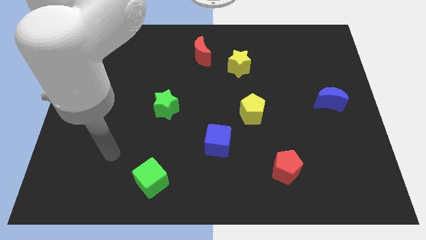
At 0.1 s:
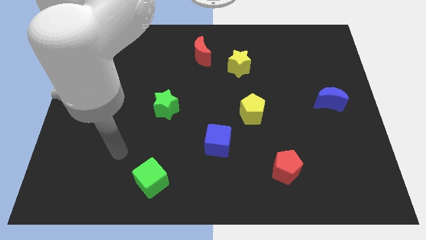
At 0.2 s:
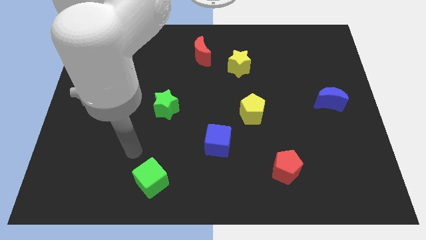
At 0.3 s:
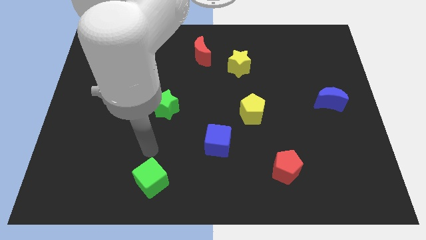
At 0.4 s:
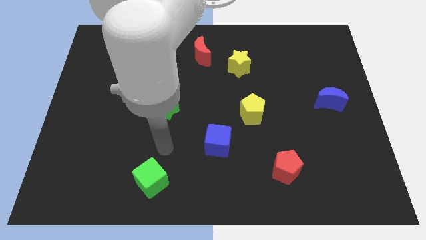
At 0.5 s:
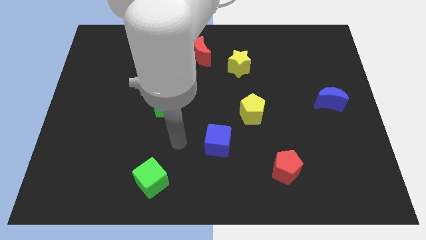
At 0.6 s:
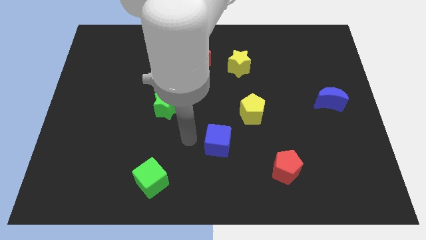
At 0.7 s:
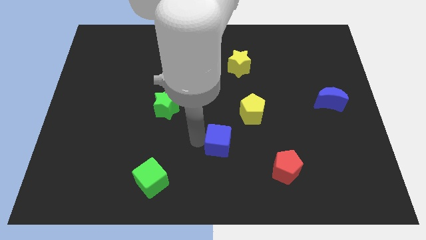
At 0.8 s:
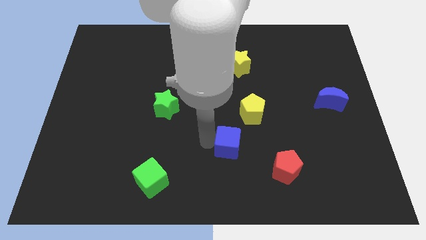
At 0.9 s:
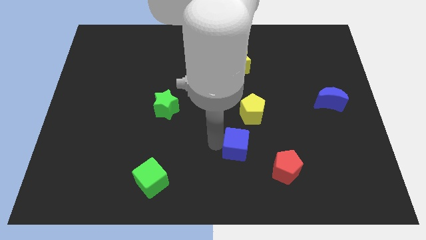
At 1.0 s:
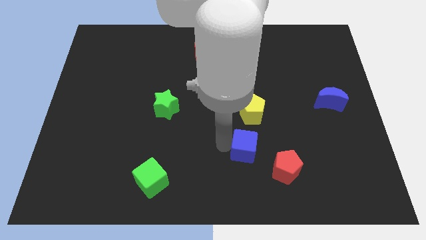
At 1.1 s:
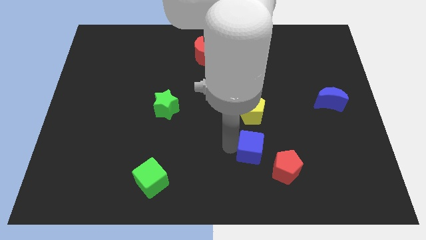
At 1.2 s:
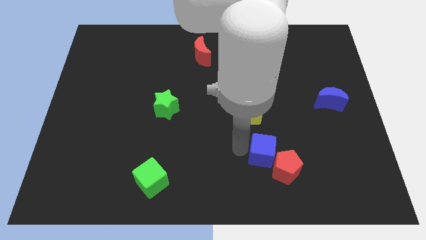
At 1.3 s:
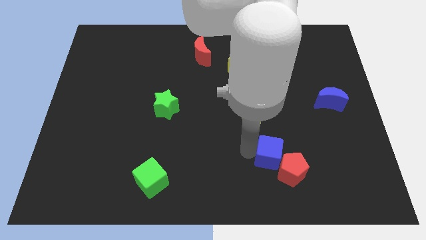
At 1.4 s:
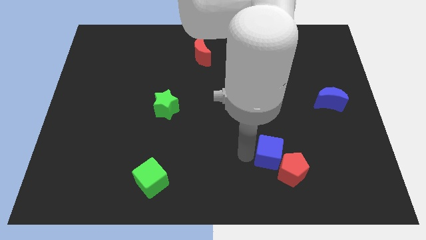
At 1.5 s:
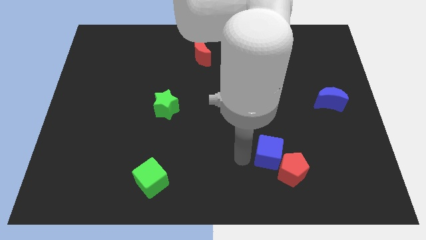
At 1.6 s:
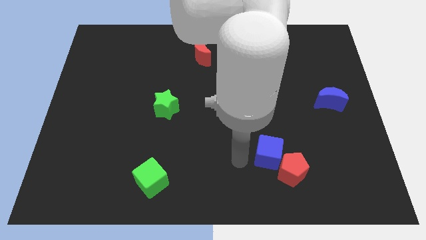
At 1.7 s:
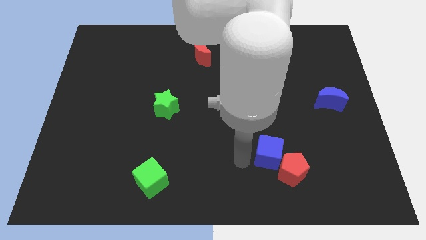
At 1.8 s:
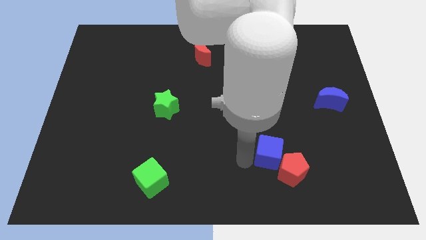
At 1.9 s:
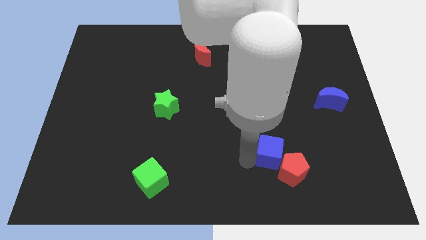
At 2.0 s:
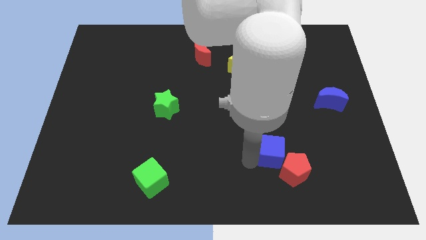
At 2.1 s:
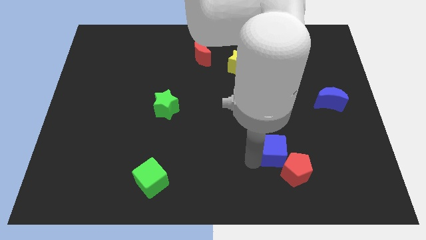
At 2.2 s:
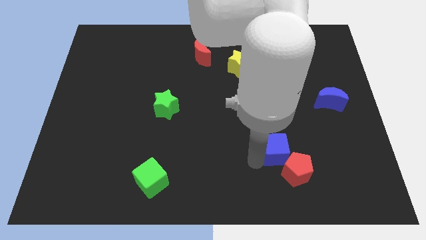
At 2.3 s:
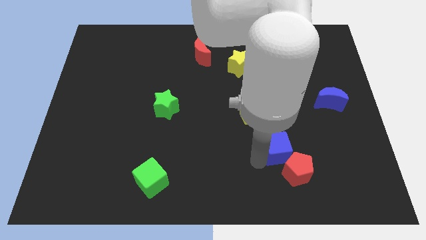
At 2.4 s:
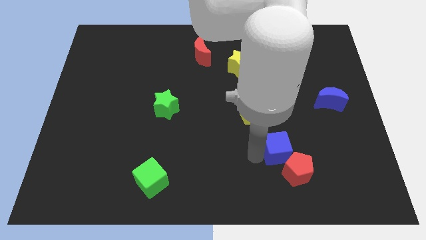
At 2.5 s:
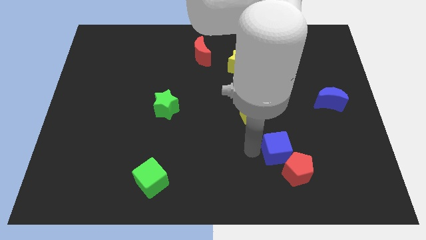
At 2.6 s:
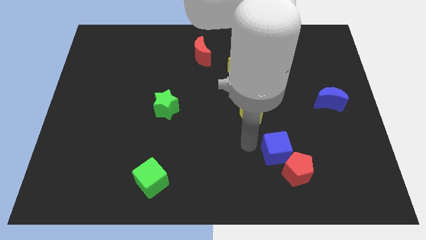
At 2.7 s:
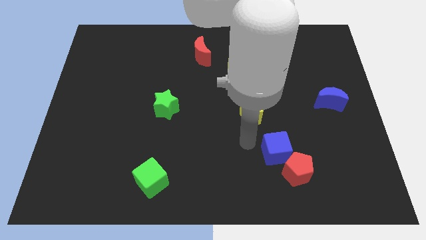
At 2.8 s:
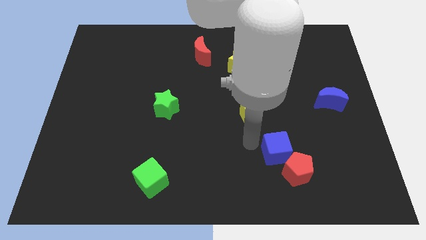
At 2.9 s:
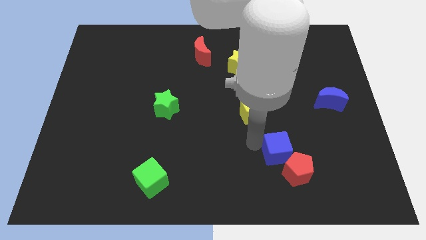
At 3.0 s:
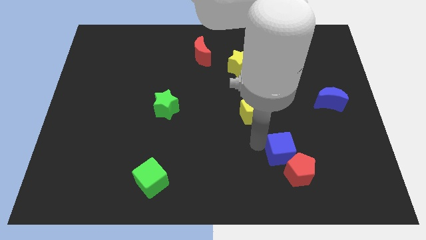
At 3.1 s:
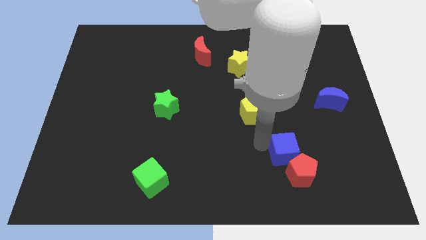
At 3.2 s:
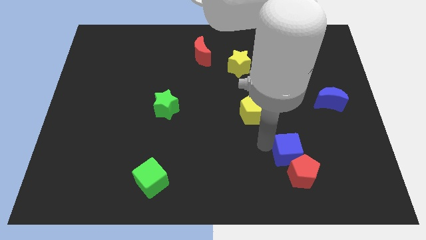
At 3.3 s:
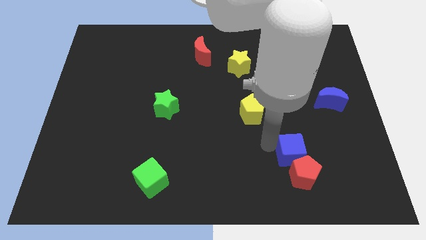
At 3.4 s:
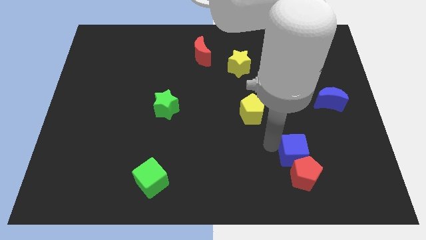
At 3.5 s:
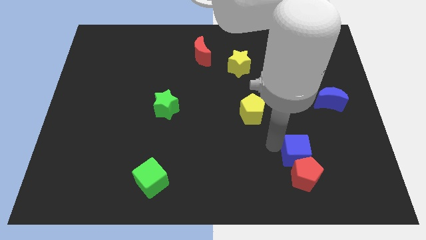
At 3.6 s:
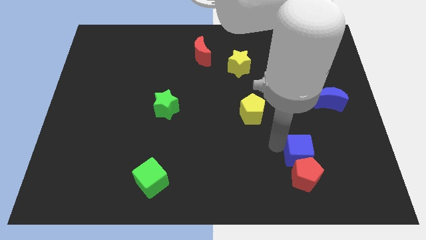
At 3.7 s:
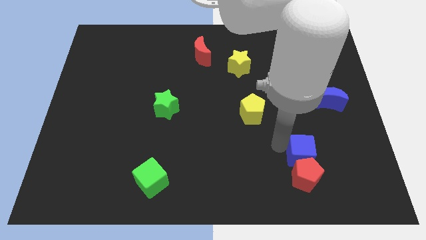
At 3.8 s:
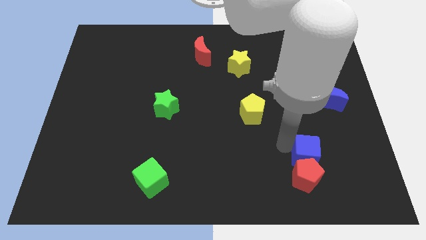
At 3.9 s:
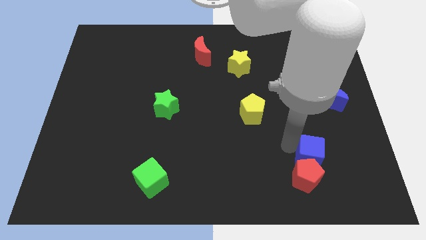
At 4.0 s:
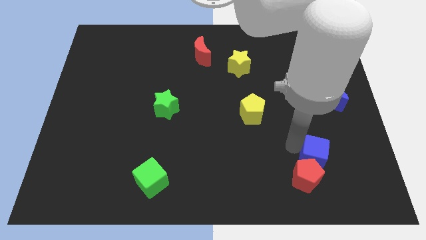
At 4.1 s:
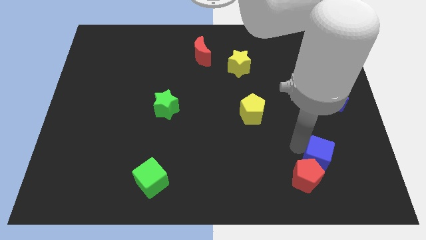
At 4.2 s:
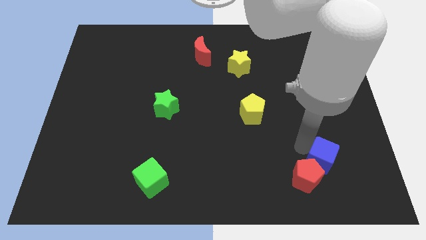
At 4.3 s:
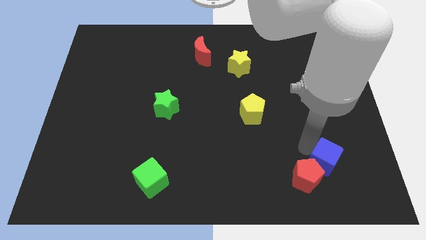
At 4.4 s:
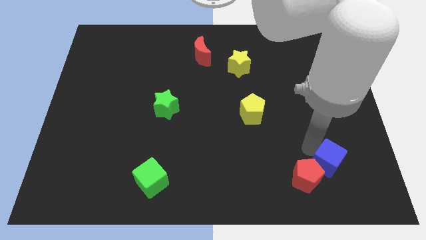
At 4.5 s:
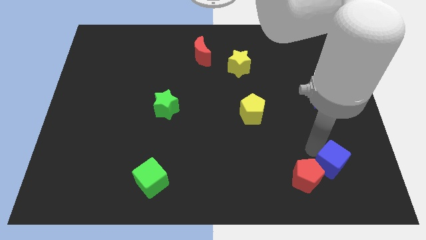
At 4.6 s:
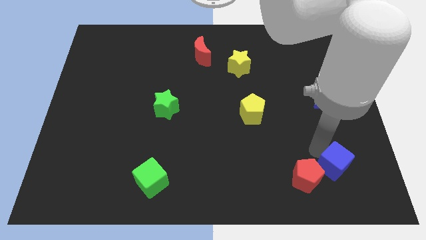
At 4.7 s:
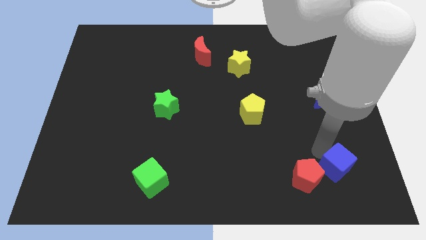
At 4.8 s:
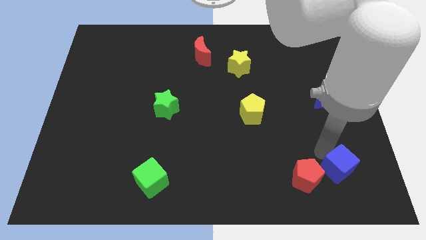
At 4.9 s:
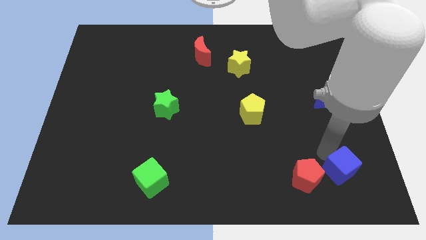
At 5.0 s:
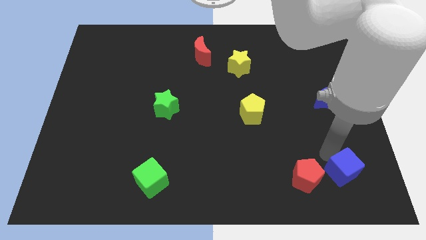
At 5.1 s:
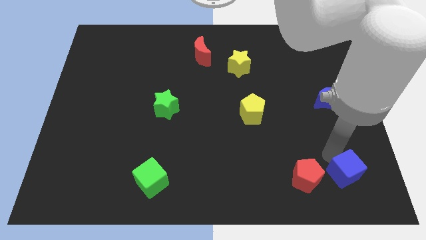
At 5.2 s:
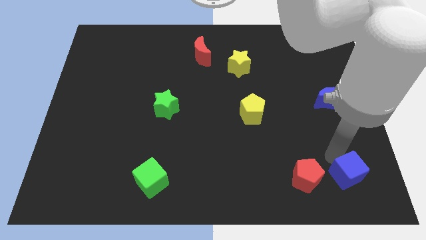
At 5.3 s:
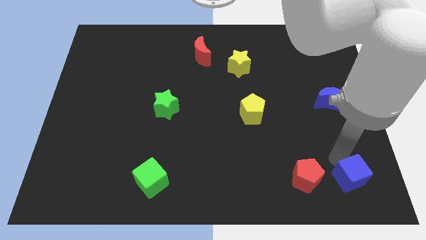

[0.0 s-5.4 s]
push the blue cube to the lower right corner

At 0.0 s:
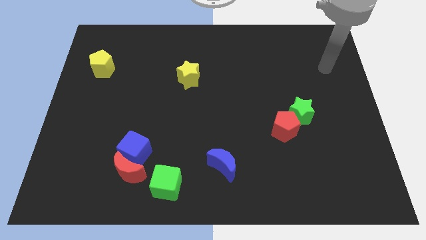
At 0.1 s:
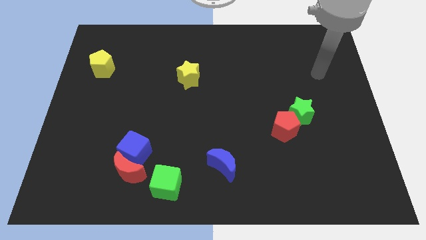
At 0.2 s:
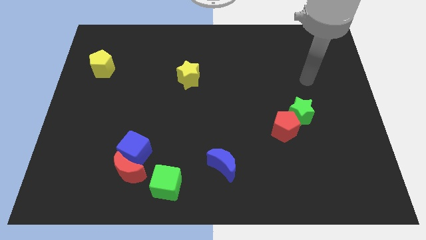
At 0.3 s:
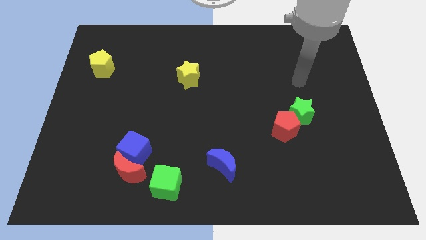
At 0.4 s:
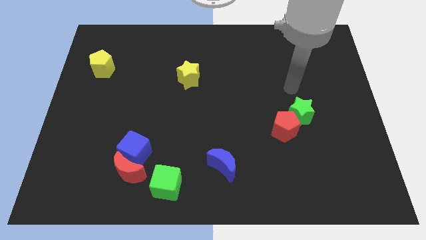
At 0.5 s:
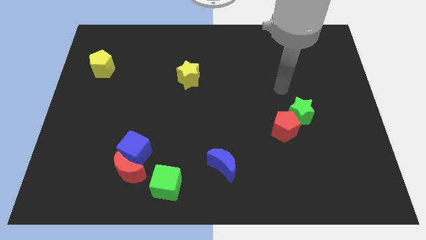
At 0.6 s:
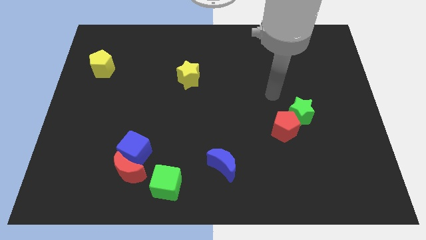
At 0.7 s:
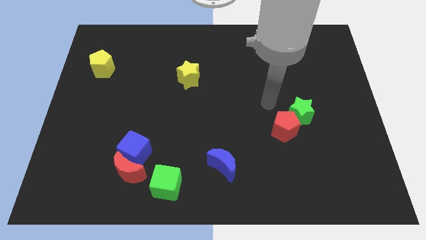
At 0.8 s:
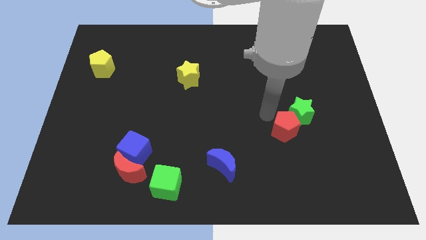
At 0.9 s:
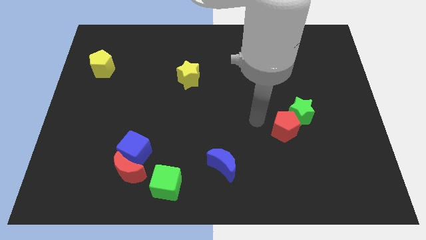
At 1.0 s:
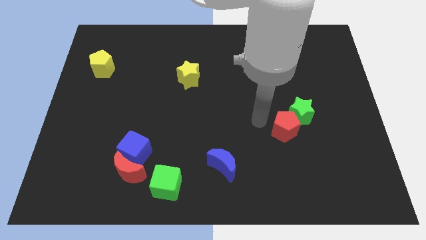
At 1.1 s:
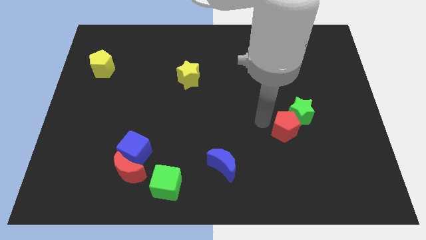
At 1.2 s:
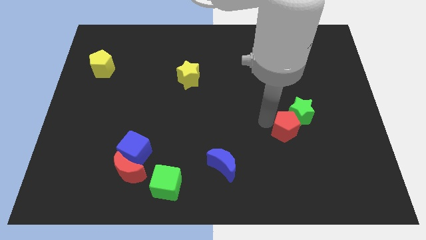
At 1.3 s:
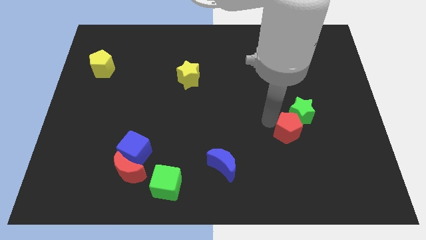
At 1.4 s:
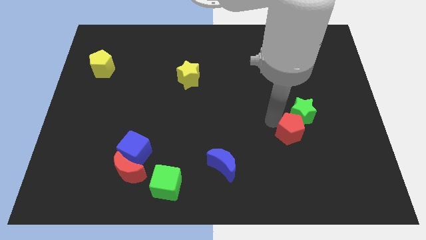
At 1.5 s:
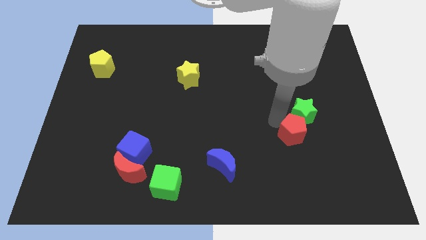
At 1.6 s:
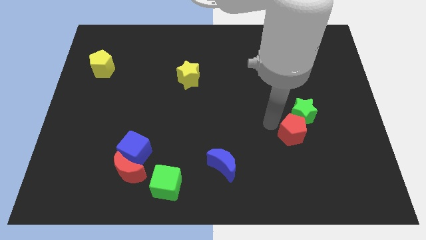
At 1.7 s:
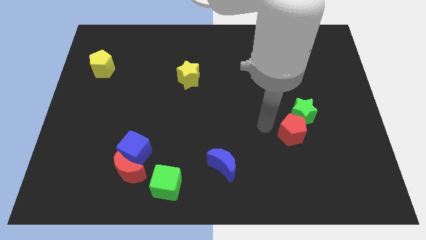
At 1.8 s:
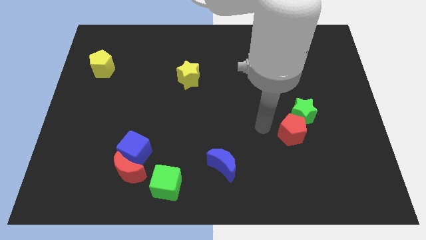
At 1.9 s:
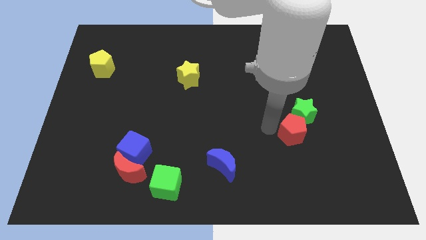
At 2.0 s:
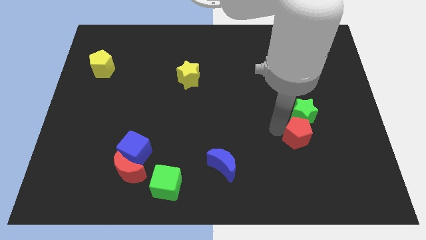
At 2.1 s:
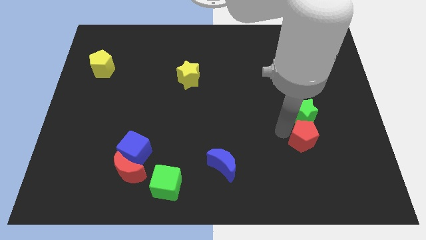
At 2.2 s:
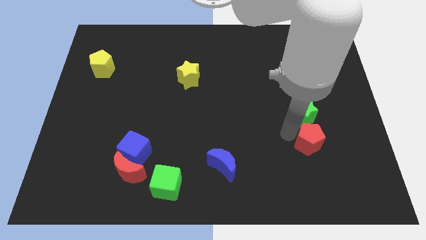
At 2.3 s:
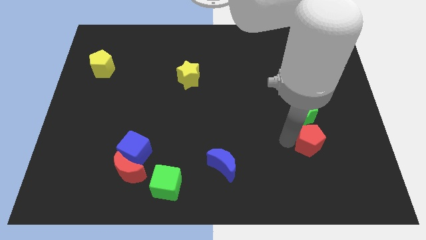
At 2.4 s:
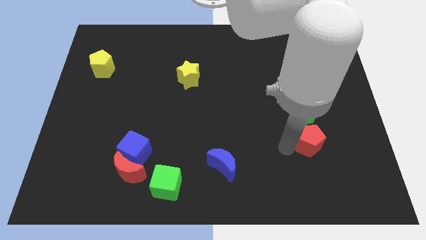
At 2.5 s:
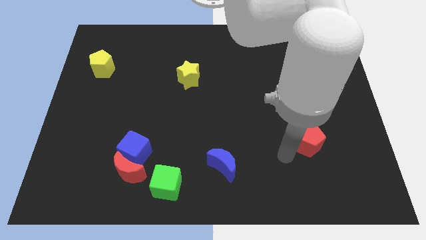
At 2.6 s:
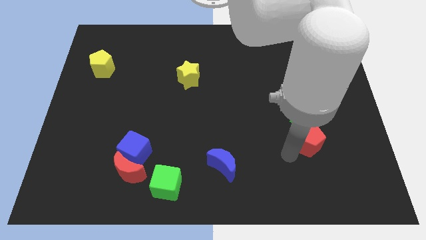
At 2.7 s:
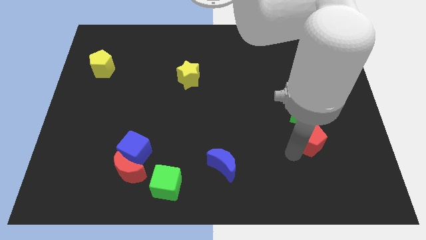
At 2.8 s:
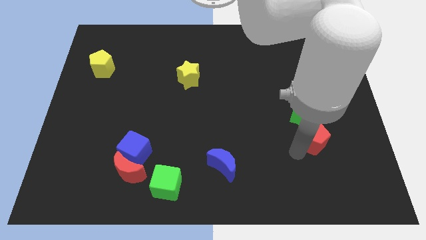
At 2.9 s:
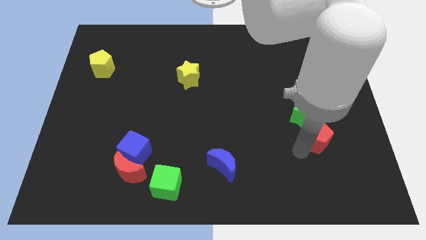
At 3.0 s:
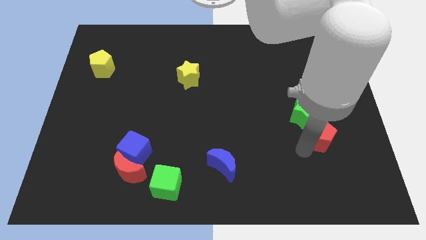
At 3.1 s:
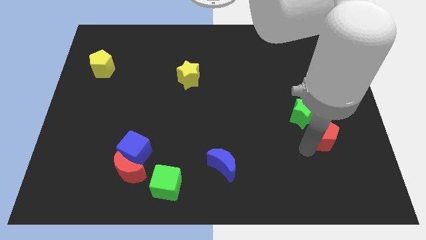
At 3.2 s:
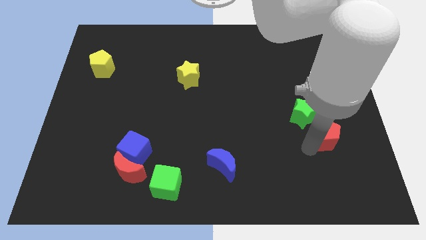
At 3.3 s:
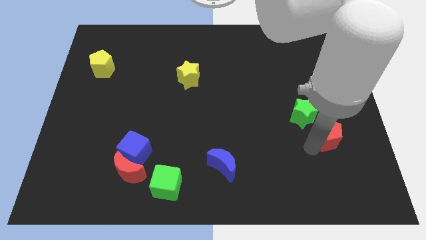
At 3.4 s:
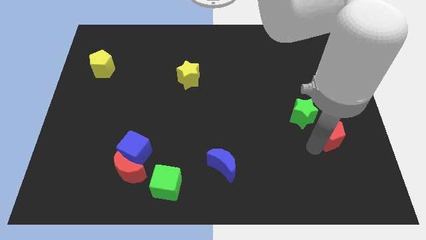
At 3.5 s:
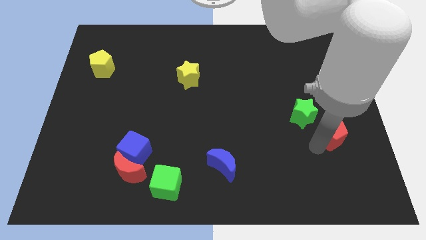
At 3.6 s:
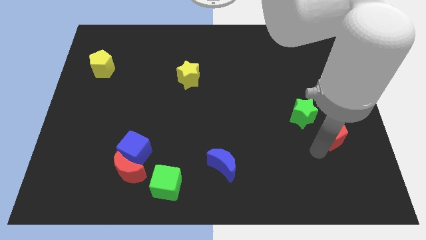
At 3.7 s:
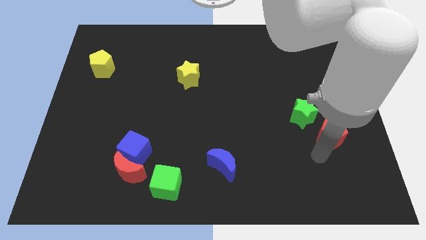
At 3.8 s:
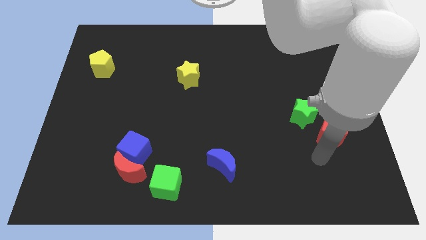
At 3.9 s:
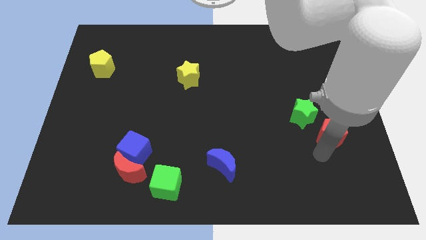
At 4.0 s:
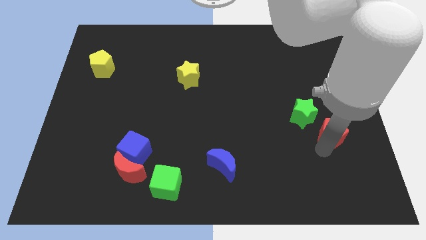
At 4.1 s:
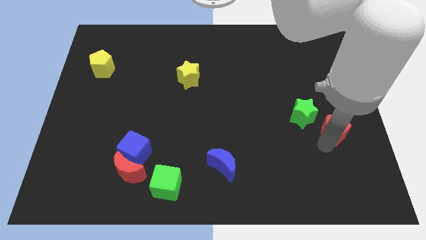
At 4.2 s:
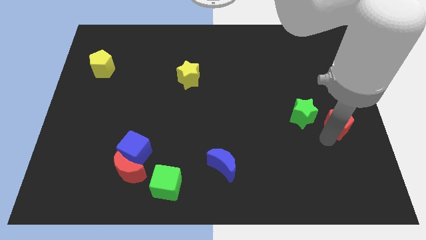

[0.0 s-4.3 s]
slide the red pentagon to the center right
